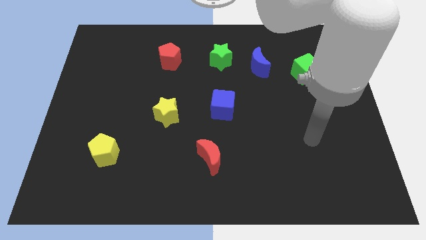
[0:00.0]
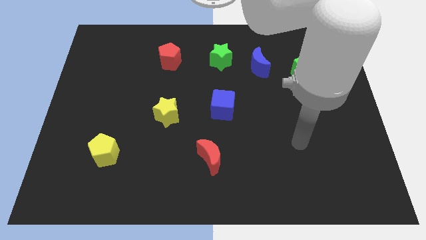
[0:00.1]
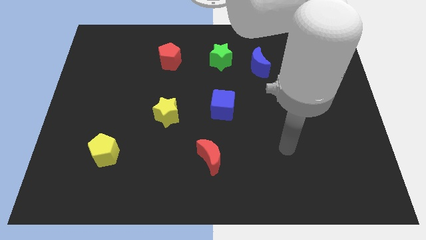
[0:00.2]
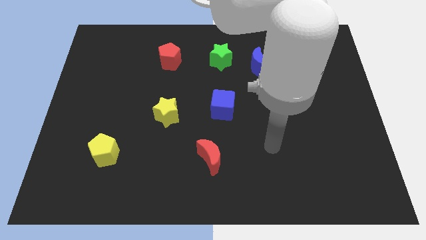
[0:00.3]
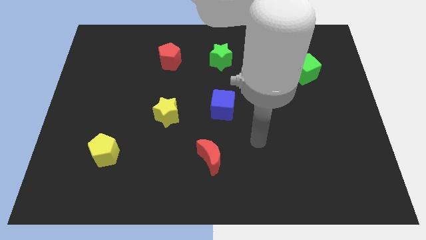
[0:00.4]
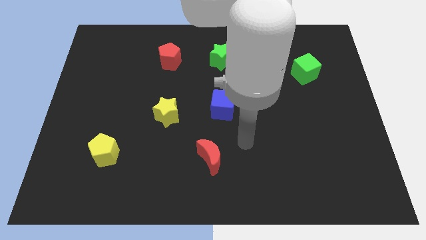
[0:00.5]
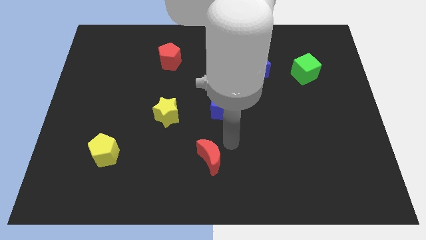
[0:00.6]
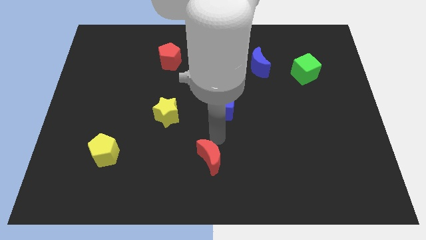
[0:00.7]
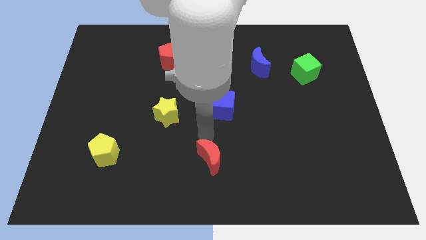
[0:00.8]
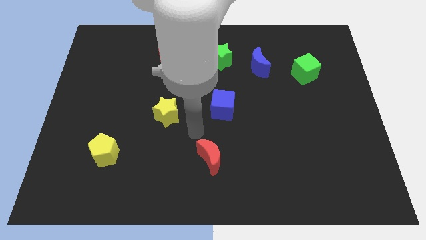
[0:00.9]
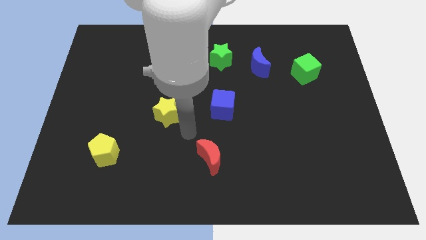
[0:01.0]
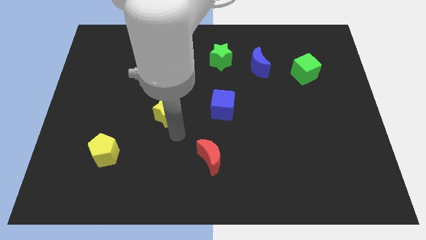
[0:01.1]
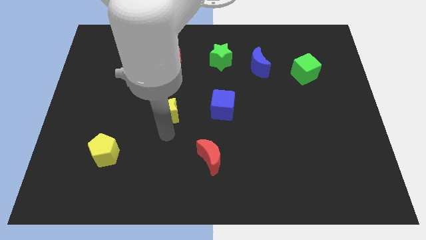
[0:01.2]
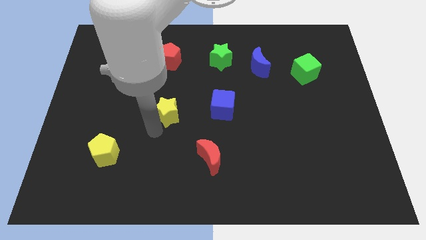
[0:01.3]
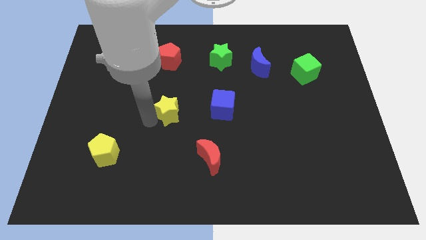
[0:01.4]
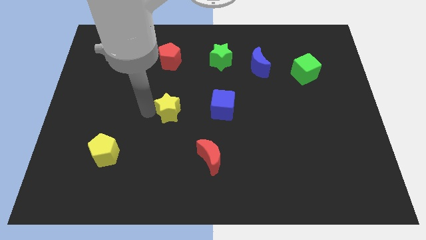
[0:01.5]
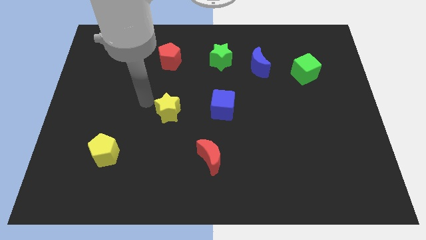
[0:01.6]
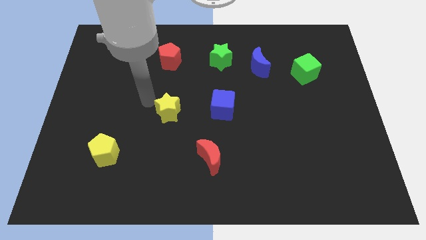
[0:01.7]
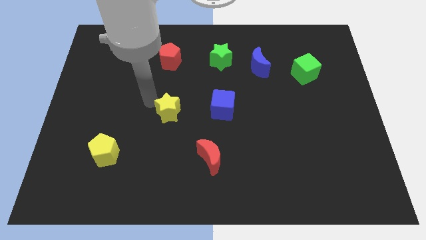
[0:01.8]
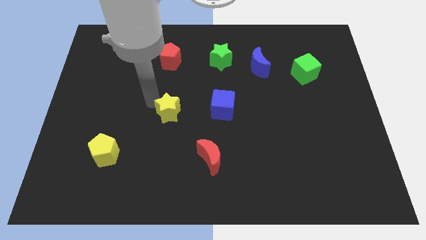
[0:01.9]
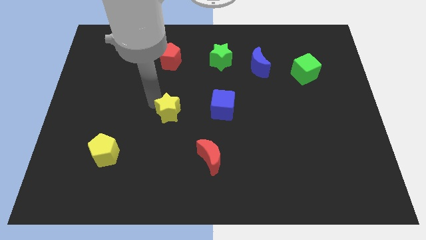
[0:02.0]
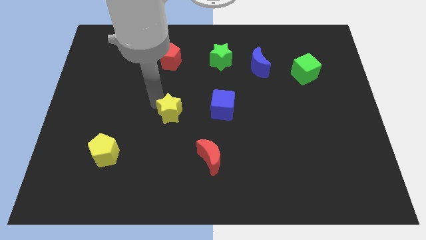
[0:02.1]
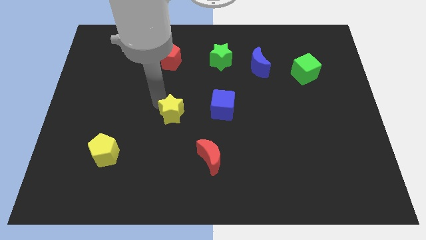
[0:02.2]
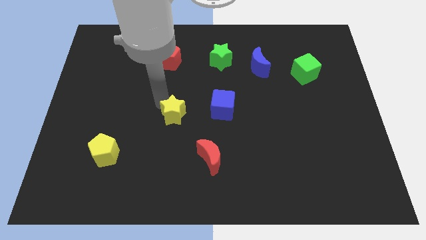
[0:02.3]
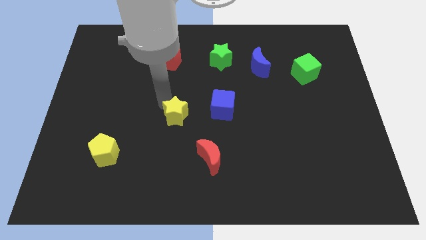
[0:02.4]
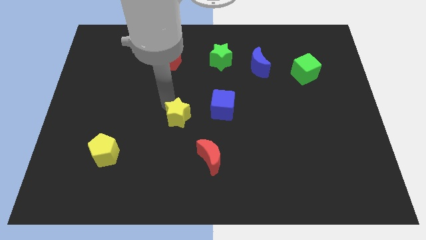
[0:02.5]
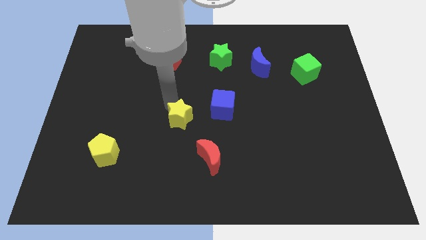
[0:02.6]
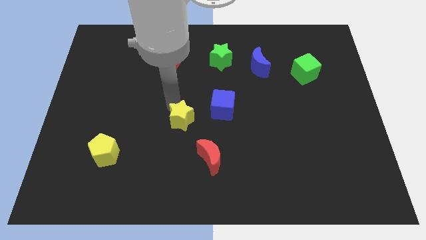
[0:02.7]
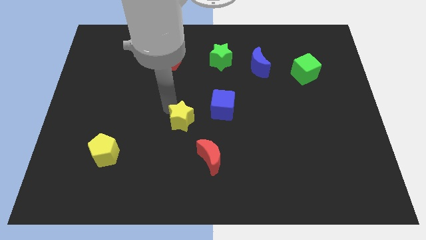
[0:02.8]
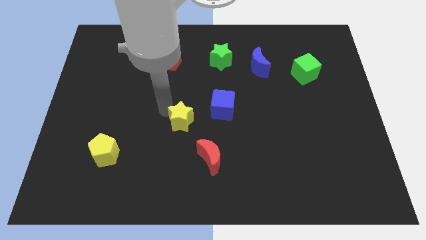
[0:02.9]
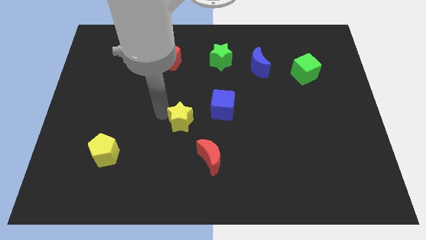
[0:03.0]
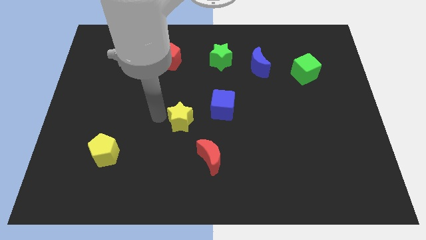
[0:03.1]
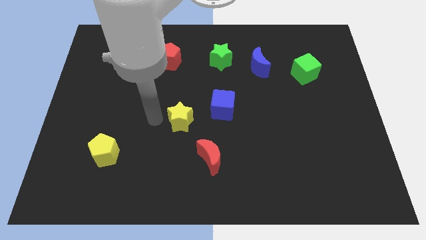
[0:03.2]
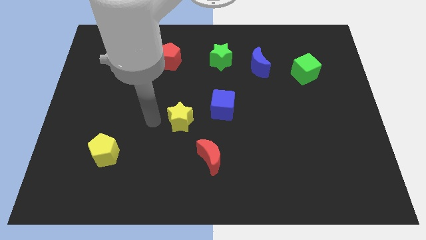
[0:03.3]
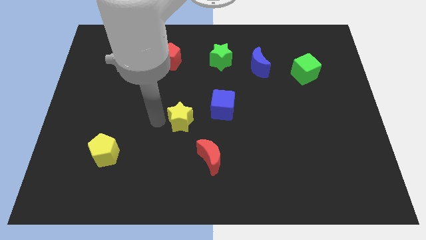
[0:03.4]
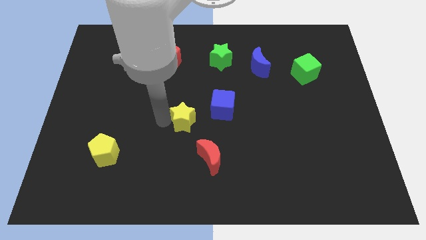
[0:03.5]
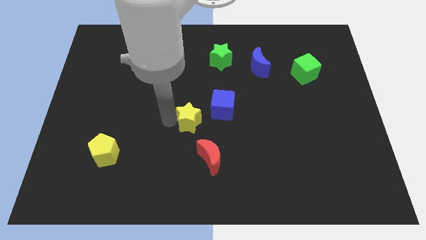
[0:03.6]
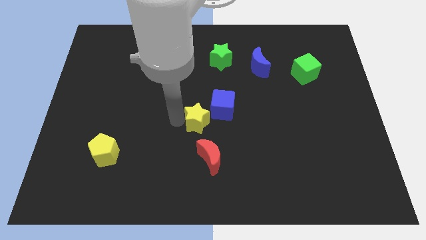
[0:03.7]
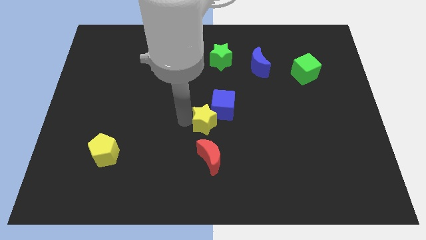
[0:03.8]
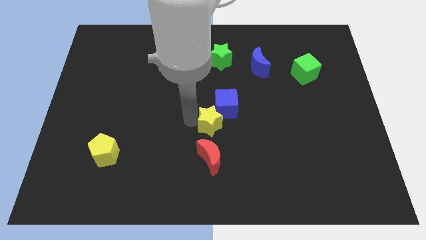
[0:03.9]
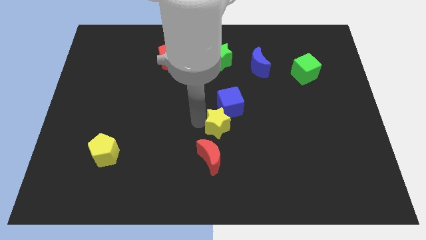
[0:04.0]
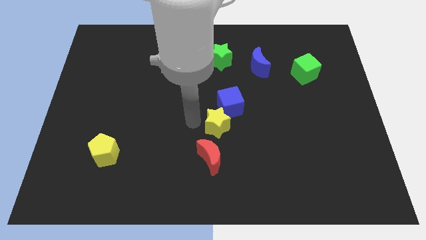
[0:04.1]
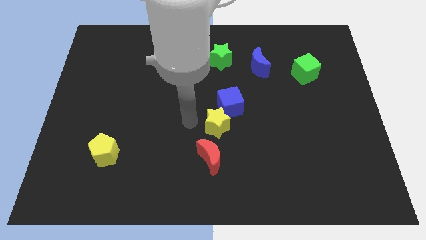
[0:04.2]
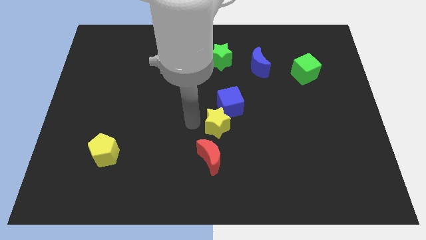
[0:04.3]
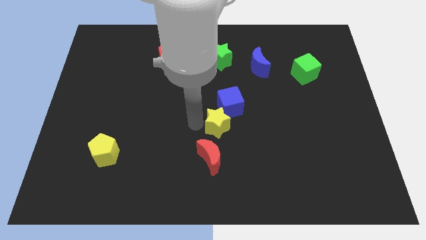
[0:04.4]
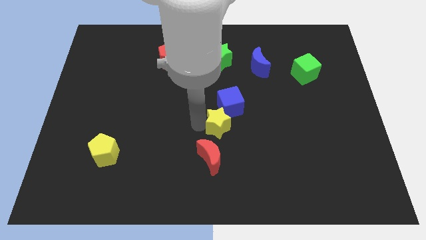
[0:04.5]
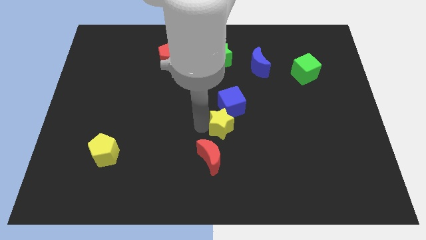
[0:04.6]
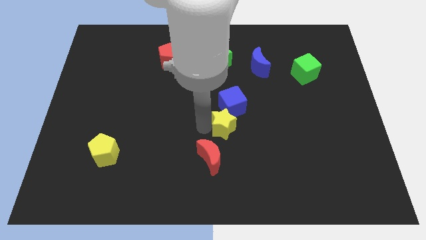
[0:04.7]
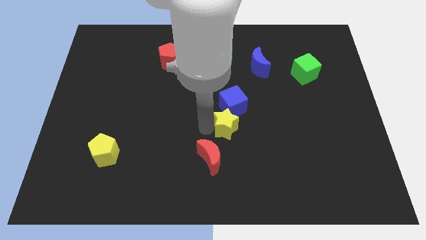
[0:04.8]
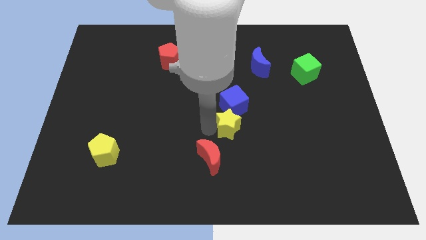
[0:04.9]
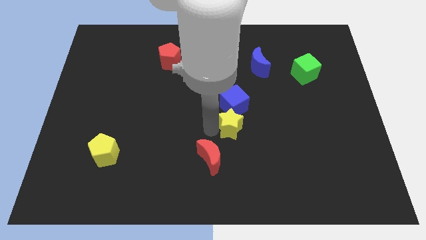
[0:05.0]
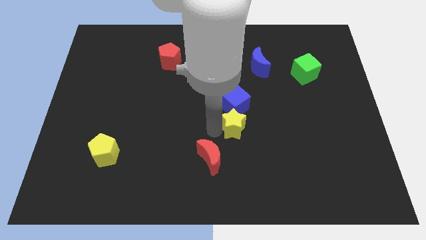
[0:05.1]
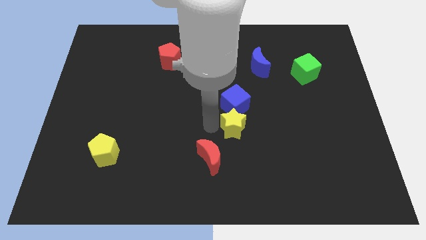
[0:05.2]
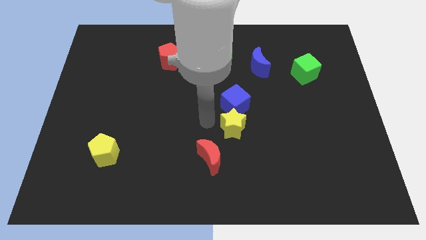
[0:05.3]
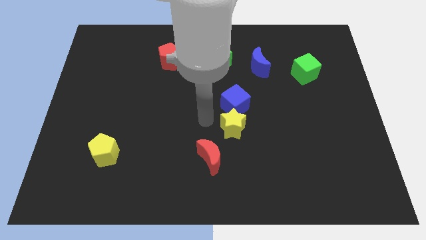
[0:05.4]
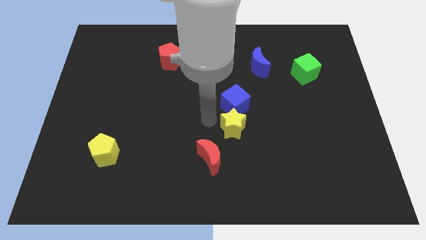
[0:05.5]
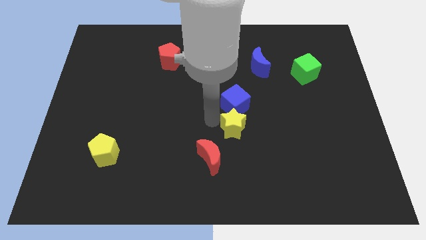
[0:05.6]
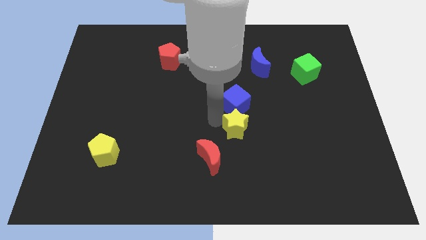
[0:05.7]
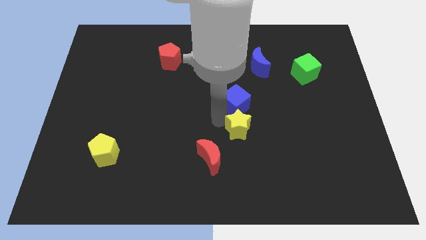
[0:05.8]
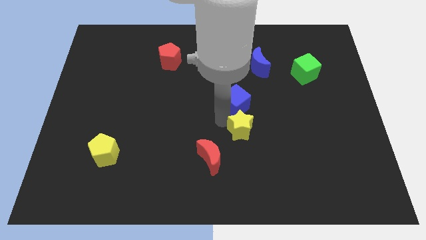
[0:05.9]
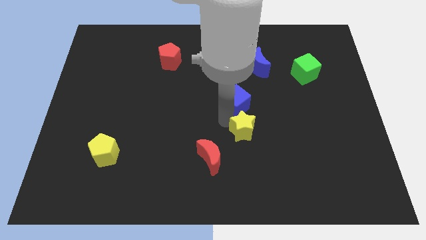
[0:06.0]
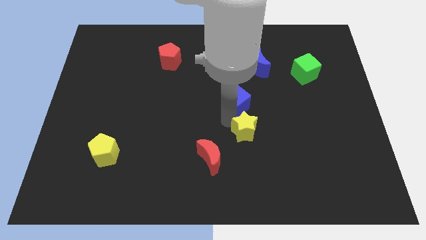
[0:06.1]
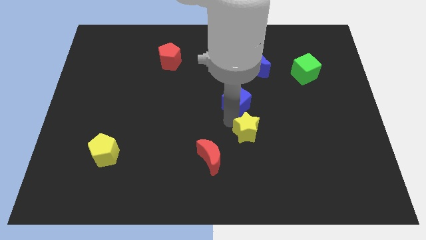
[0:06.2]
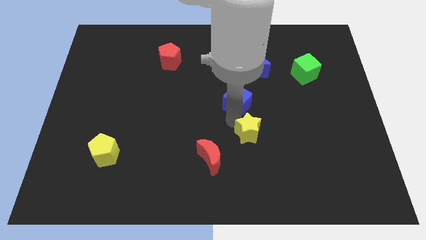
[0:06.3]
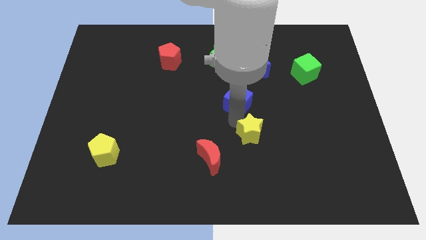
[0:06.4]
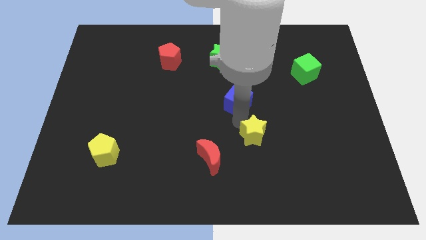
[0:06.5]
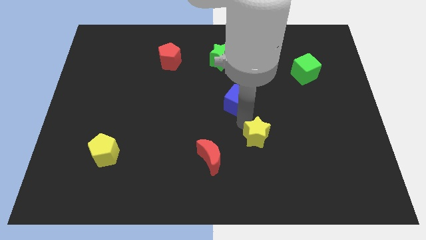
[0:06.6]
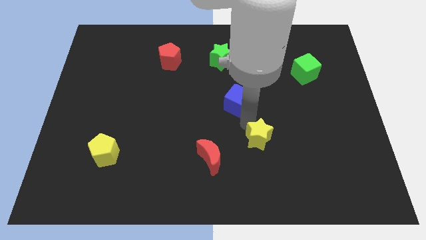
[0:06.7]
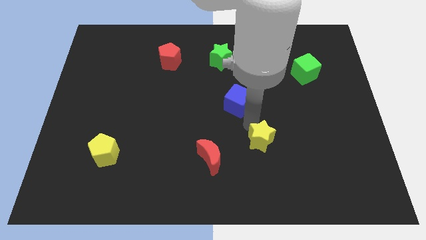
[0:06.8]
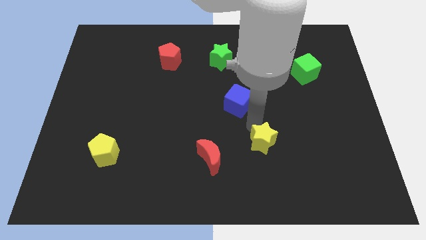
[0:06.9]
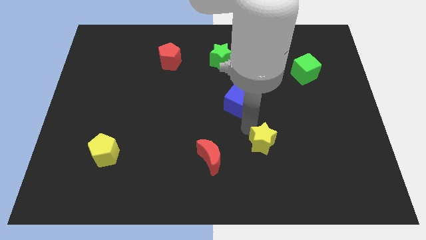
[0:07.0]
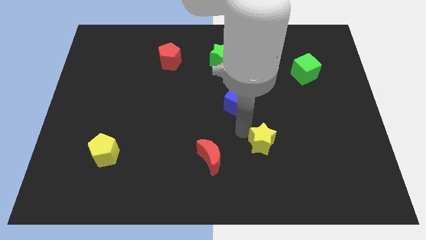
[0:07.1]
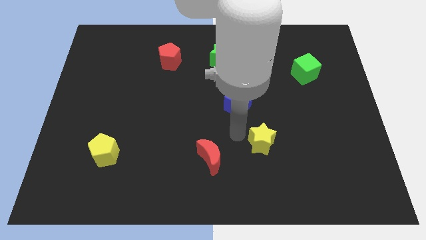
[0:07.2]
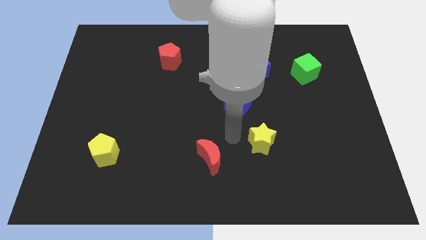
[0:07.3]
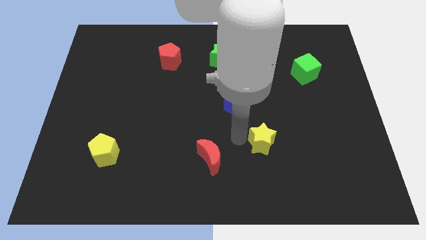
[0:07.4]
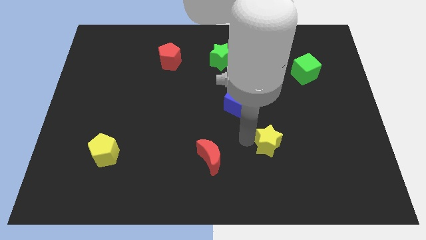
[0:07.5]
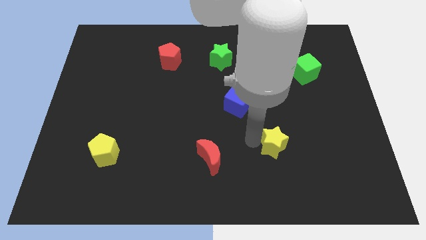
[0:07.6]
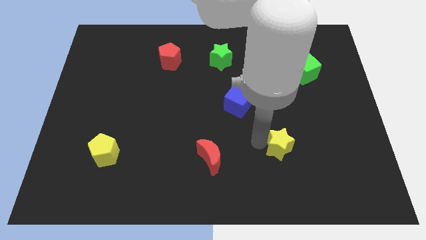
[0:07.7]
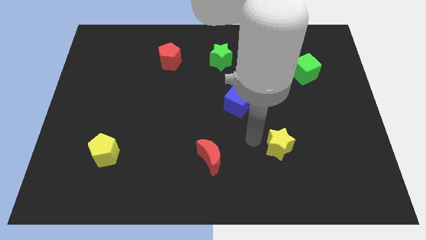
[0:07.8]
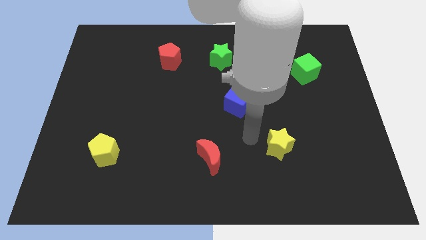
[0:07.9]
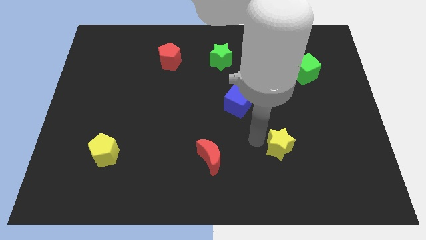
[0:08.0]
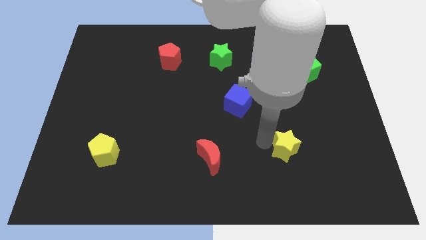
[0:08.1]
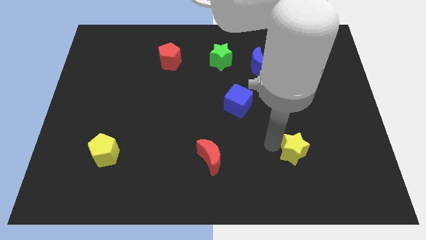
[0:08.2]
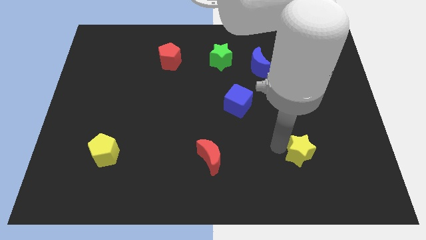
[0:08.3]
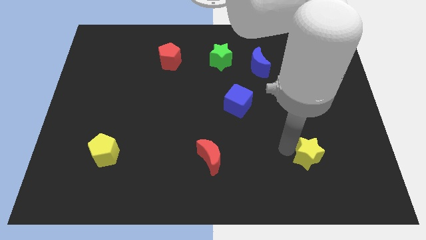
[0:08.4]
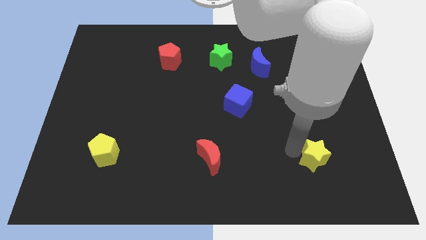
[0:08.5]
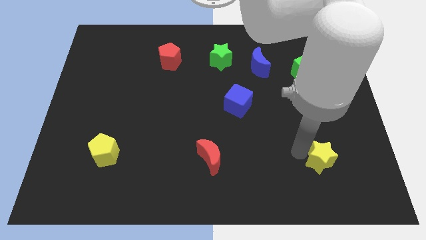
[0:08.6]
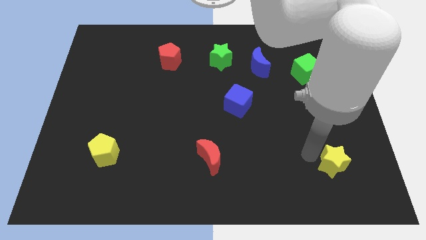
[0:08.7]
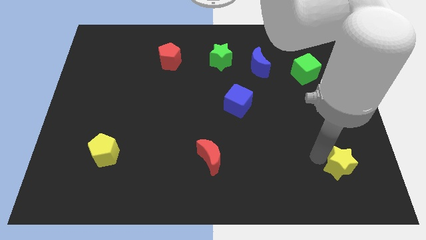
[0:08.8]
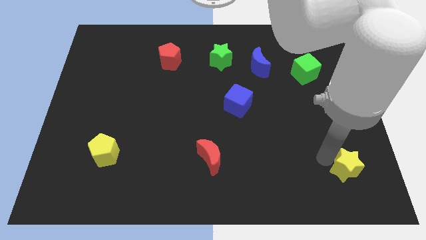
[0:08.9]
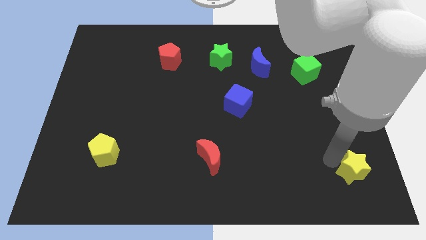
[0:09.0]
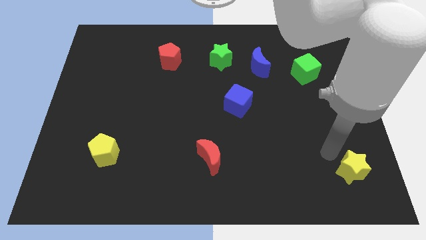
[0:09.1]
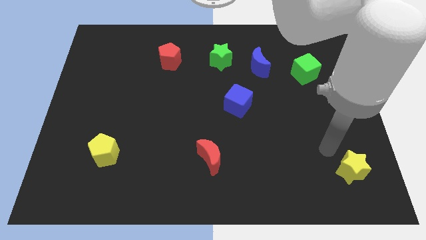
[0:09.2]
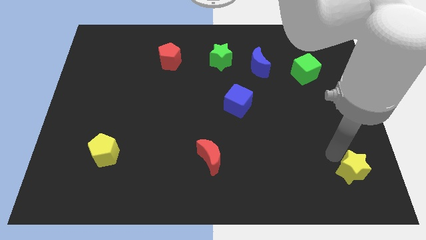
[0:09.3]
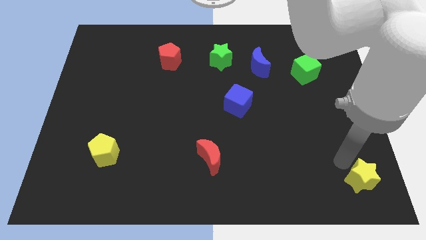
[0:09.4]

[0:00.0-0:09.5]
slide the yellow star to the bottom right corner
